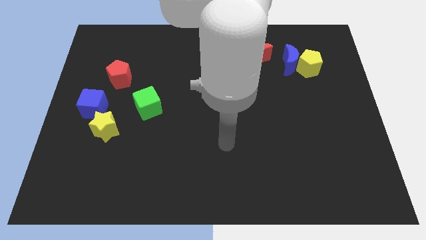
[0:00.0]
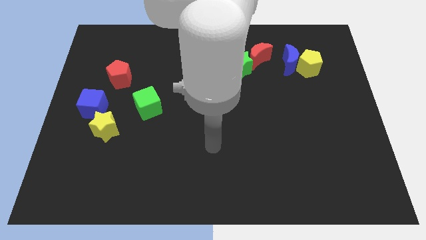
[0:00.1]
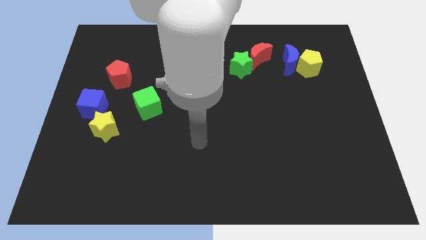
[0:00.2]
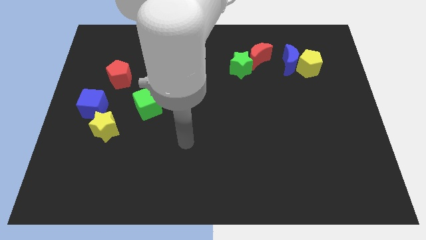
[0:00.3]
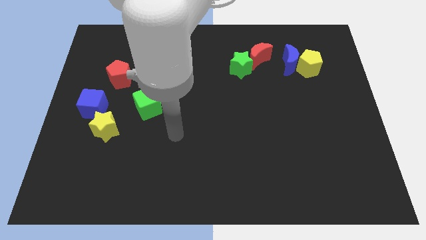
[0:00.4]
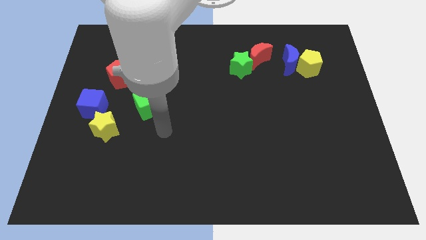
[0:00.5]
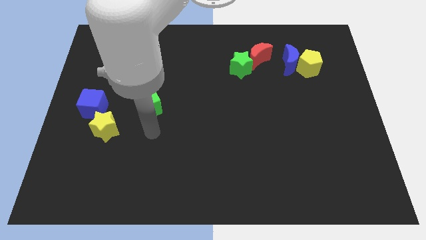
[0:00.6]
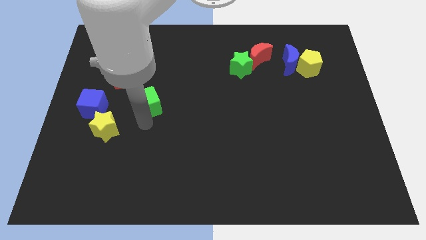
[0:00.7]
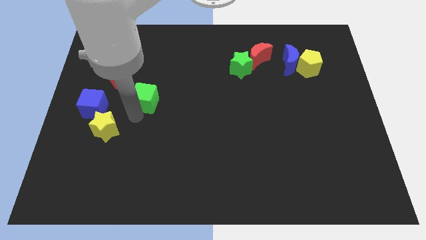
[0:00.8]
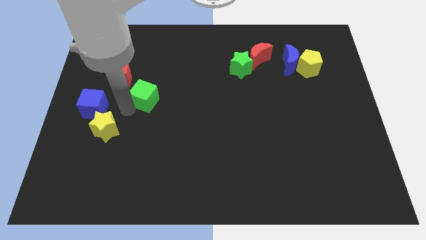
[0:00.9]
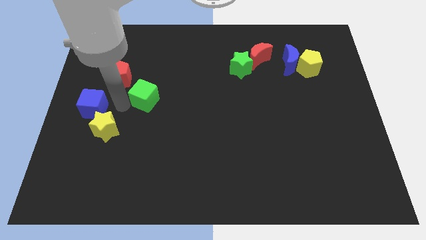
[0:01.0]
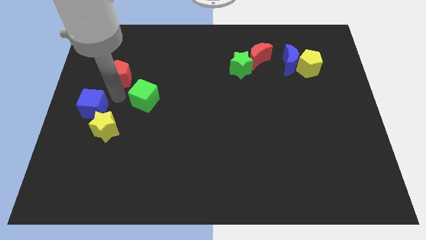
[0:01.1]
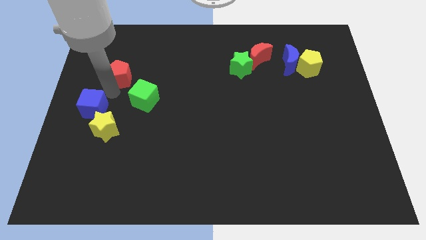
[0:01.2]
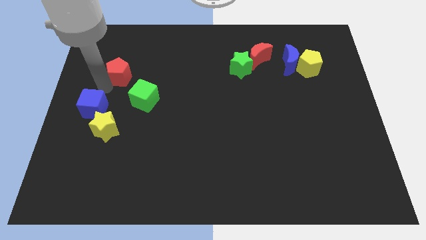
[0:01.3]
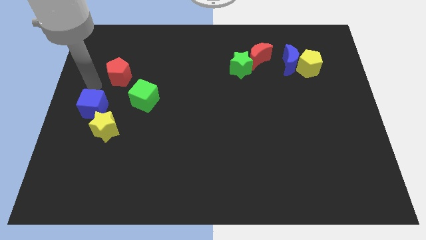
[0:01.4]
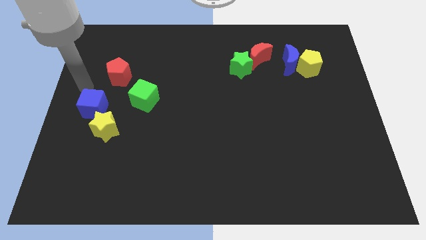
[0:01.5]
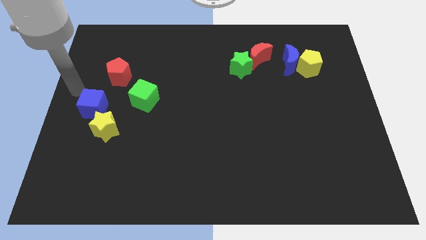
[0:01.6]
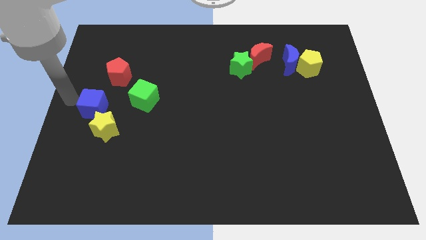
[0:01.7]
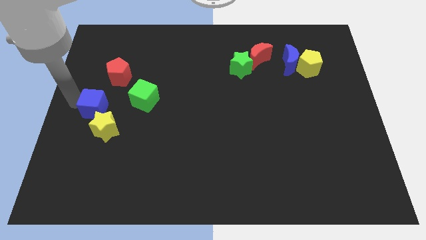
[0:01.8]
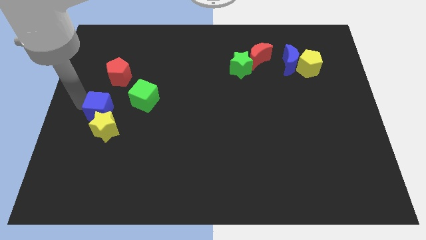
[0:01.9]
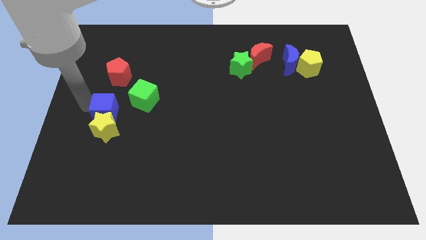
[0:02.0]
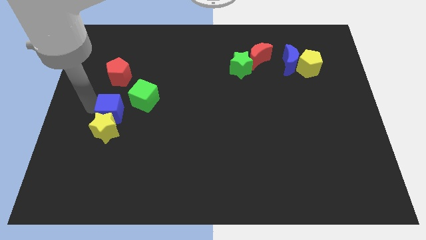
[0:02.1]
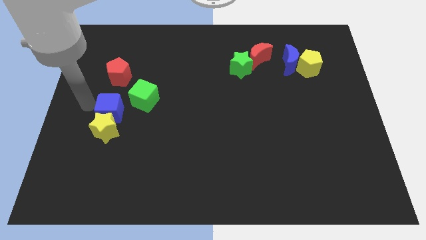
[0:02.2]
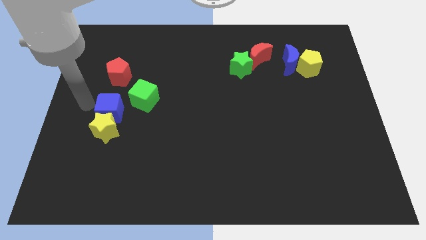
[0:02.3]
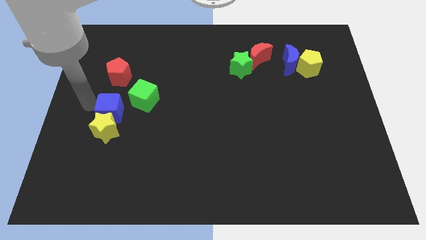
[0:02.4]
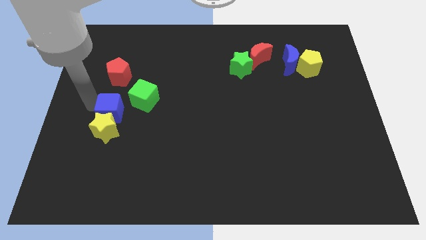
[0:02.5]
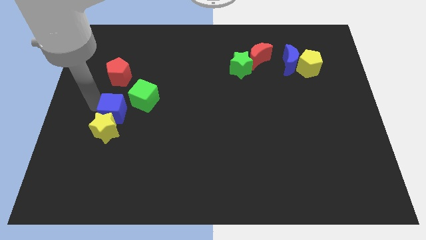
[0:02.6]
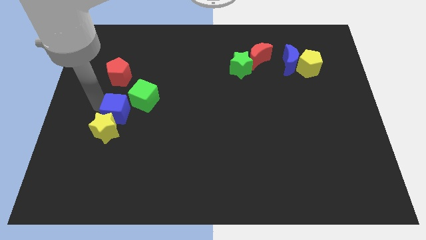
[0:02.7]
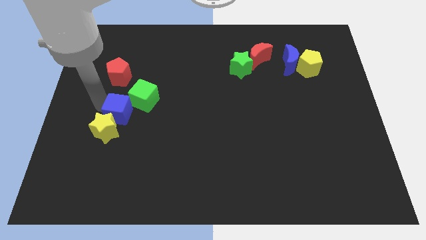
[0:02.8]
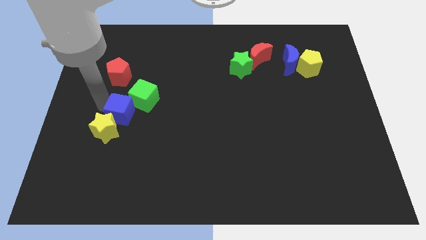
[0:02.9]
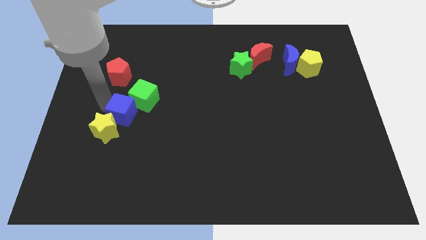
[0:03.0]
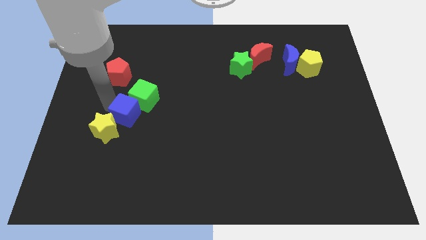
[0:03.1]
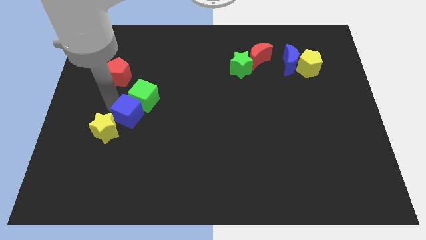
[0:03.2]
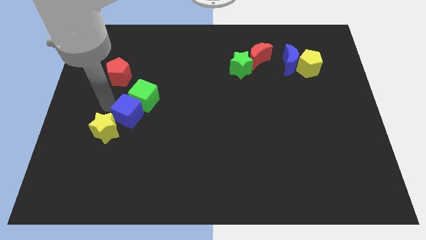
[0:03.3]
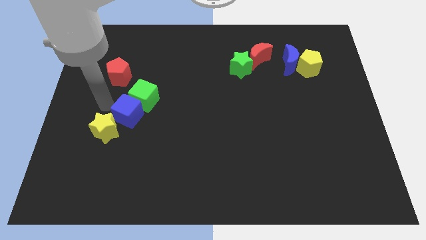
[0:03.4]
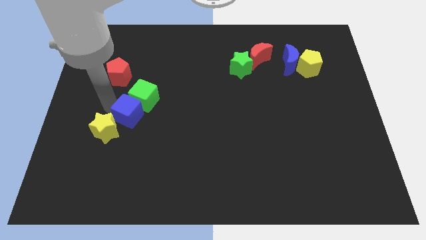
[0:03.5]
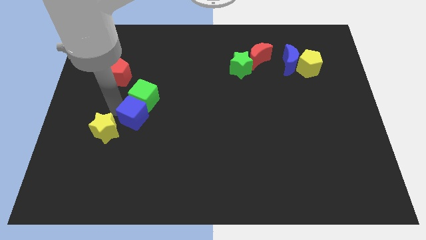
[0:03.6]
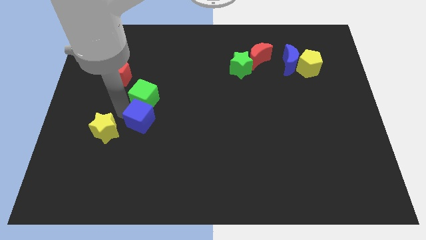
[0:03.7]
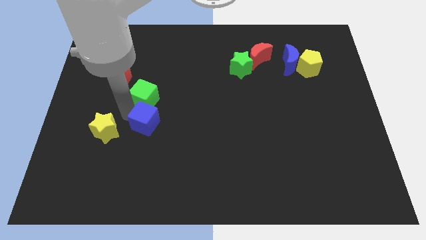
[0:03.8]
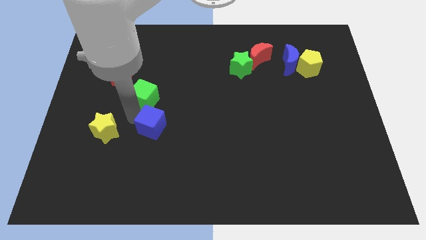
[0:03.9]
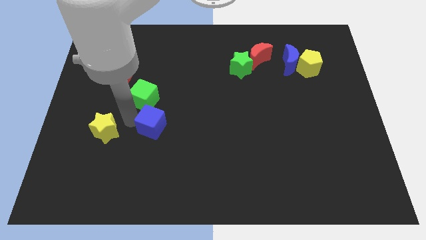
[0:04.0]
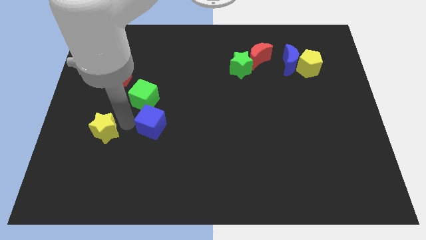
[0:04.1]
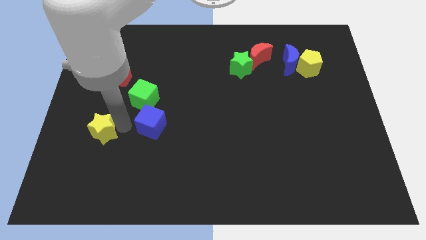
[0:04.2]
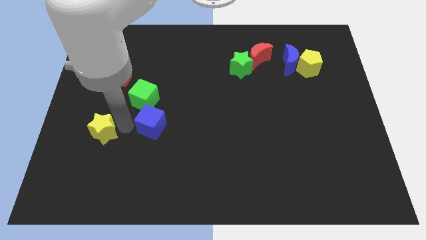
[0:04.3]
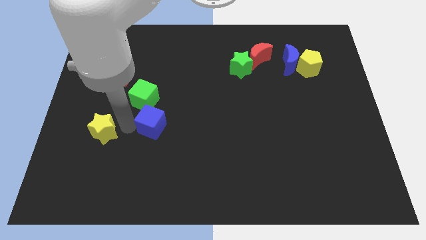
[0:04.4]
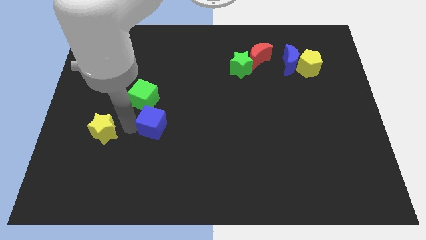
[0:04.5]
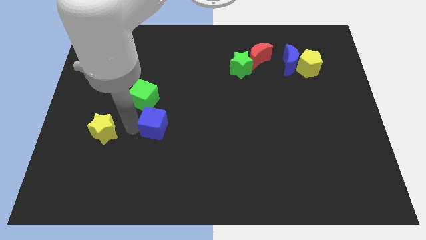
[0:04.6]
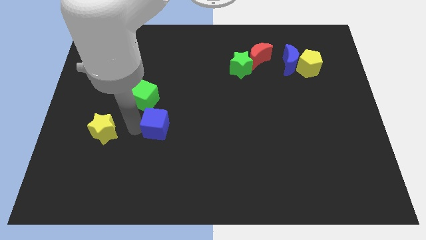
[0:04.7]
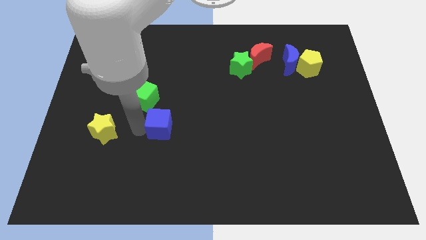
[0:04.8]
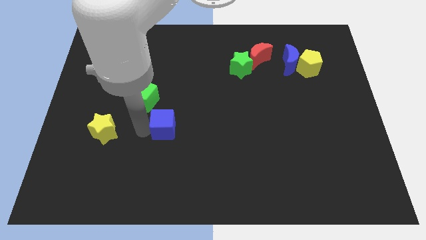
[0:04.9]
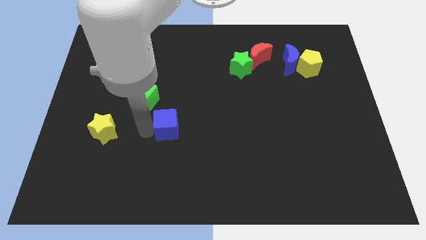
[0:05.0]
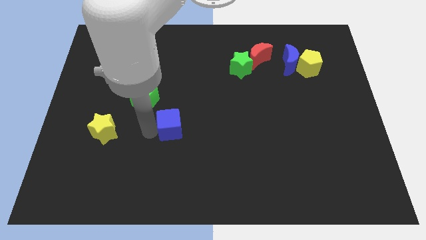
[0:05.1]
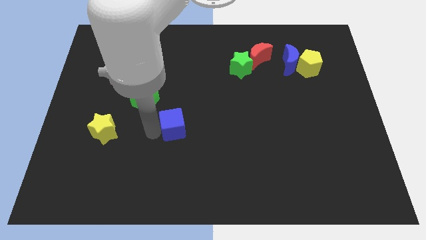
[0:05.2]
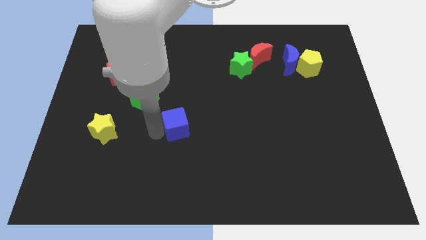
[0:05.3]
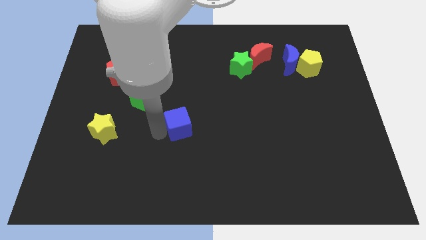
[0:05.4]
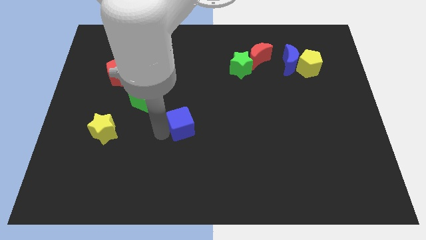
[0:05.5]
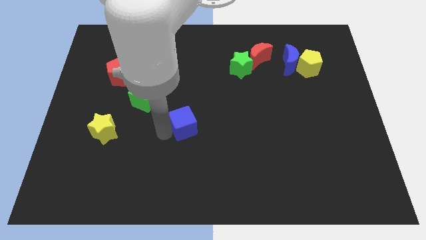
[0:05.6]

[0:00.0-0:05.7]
slide the blue cube to the right

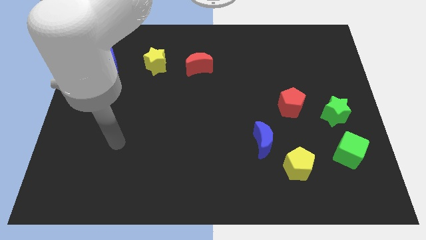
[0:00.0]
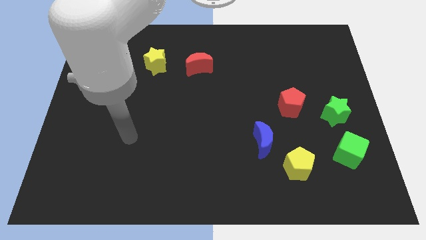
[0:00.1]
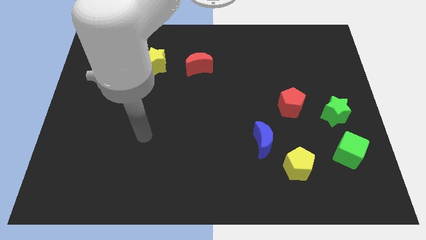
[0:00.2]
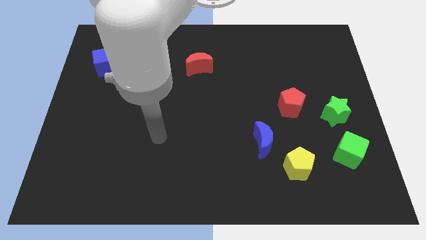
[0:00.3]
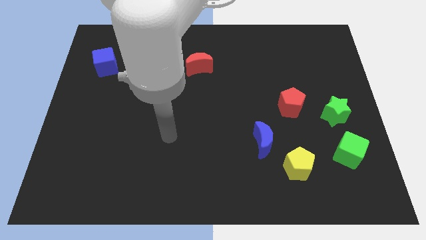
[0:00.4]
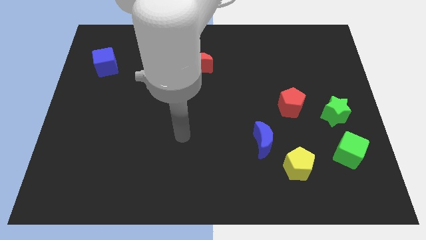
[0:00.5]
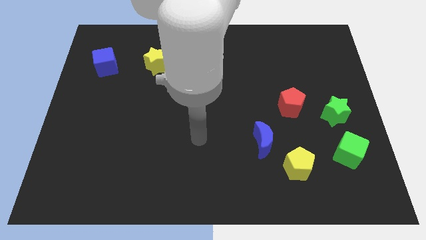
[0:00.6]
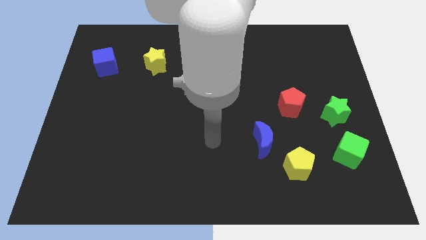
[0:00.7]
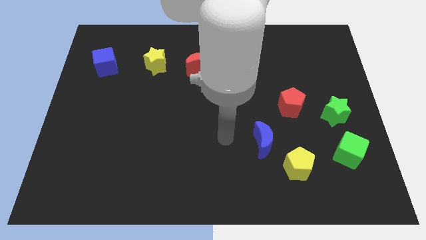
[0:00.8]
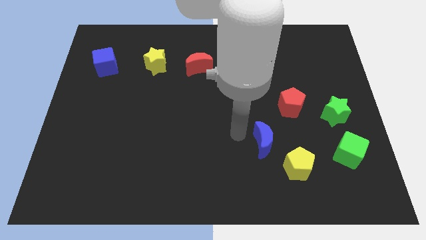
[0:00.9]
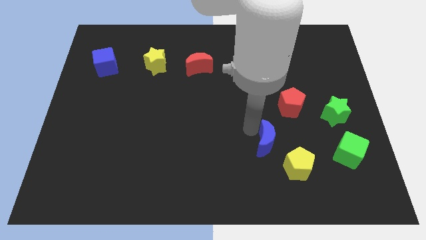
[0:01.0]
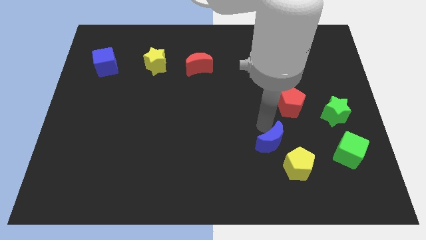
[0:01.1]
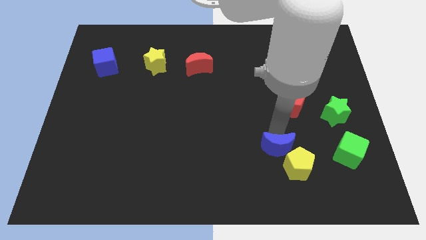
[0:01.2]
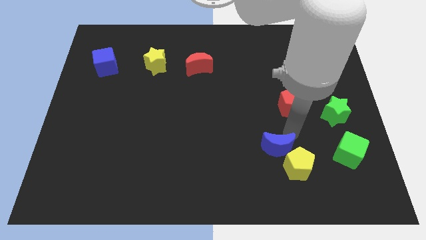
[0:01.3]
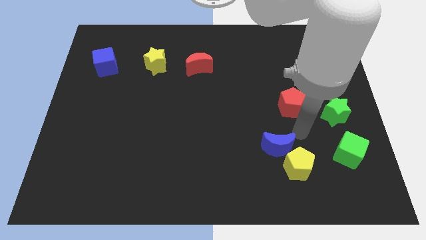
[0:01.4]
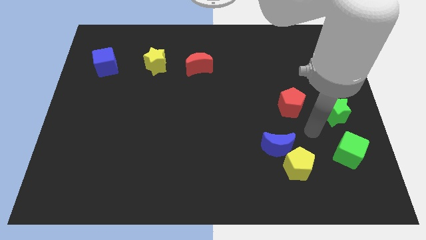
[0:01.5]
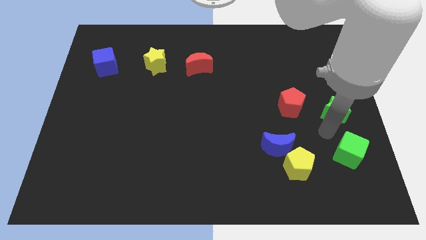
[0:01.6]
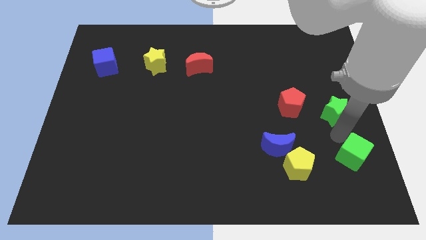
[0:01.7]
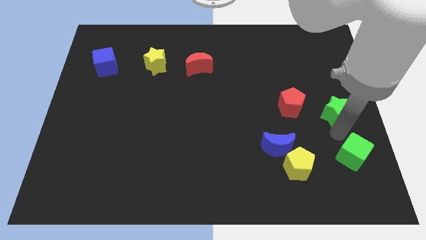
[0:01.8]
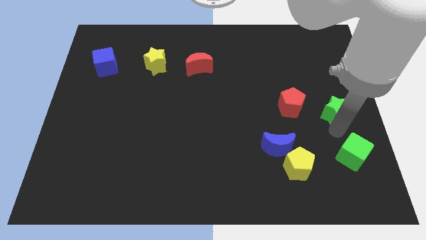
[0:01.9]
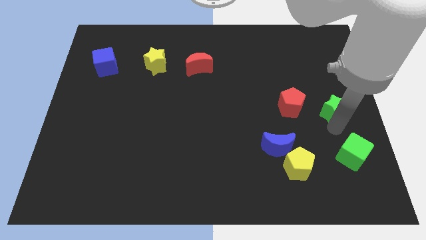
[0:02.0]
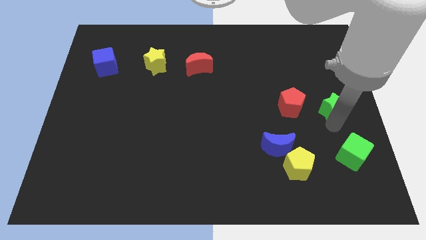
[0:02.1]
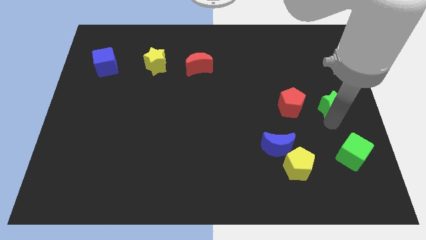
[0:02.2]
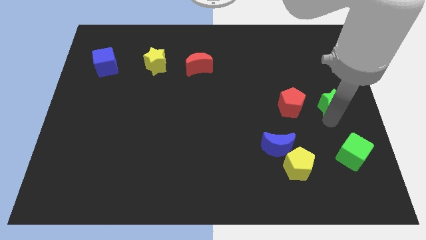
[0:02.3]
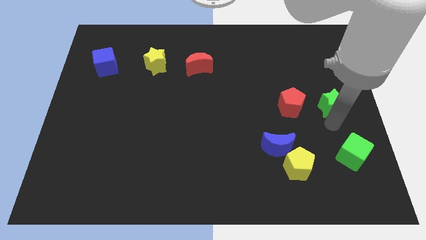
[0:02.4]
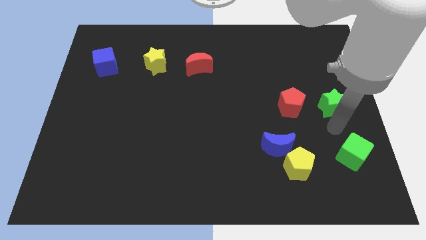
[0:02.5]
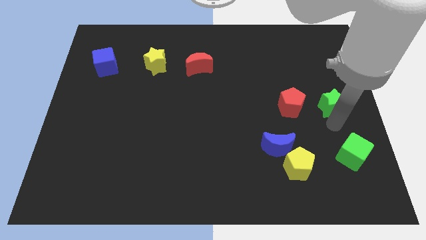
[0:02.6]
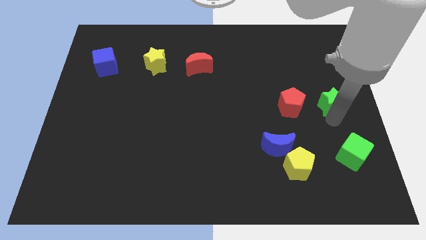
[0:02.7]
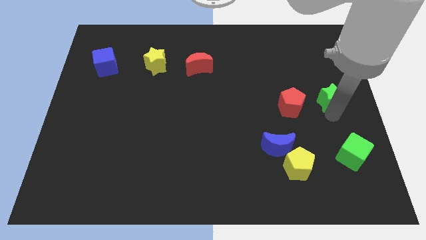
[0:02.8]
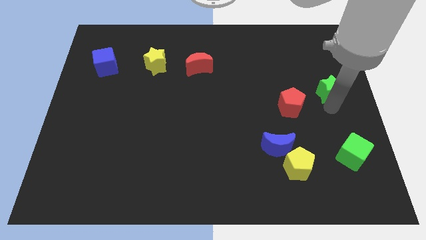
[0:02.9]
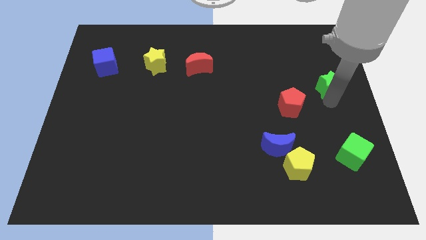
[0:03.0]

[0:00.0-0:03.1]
push the green star upwards a little
